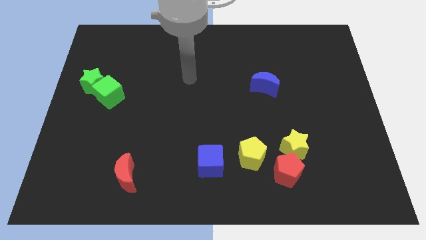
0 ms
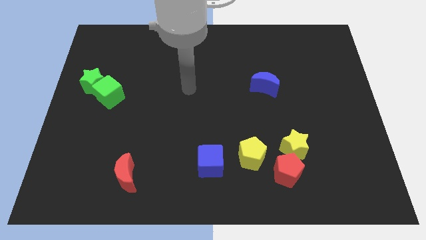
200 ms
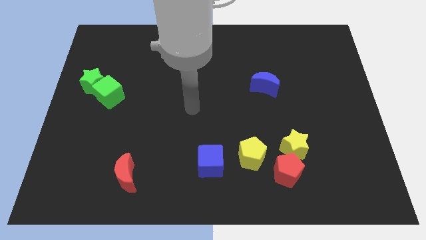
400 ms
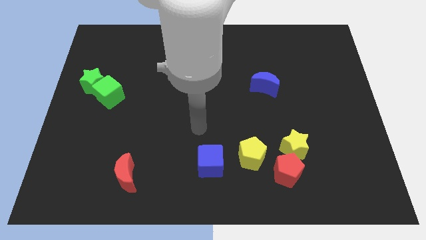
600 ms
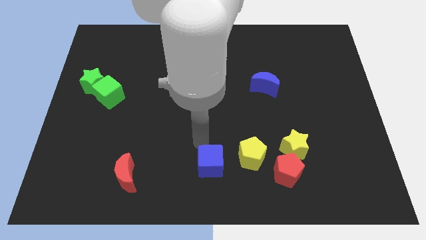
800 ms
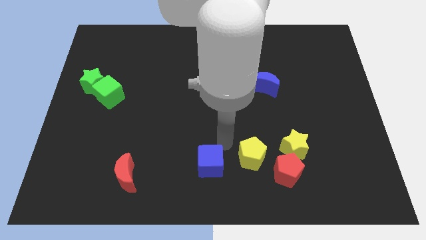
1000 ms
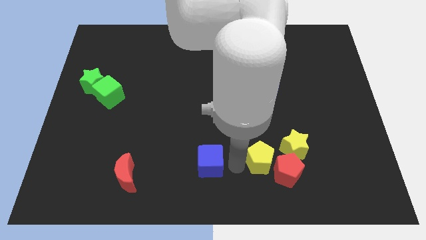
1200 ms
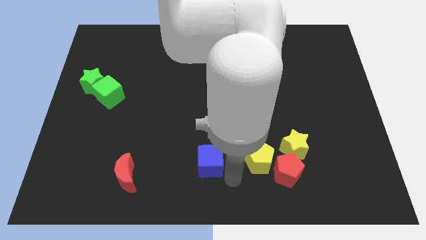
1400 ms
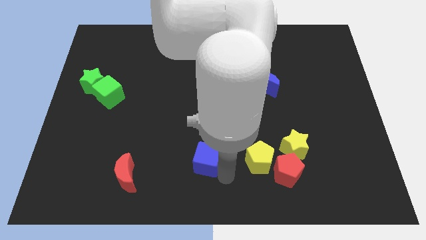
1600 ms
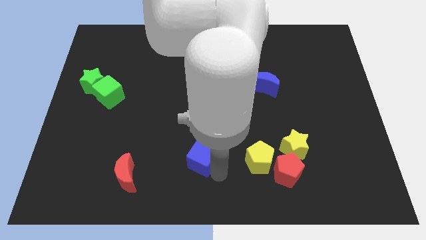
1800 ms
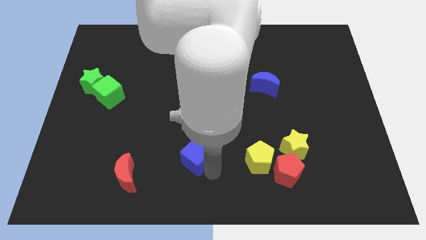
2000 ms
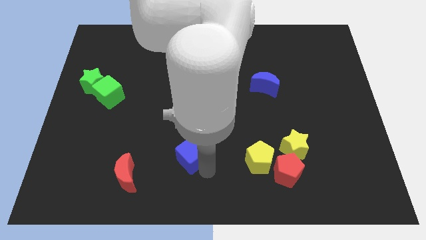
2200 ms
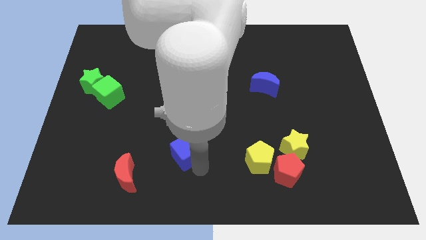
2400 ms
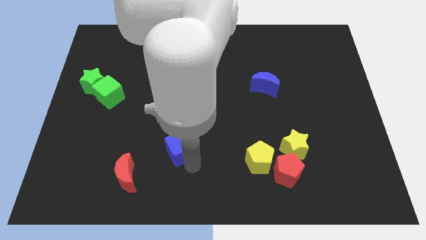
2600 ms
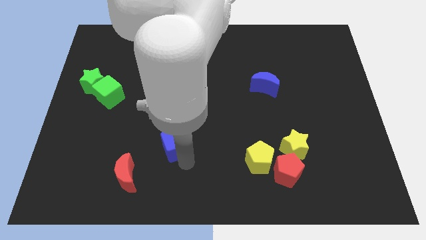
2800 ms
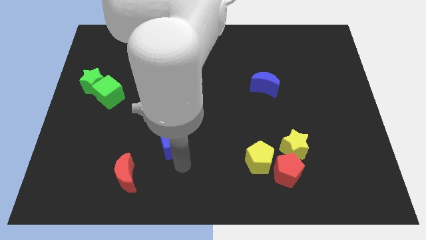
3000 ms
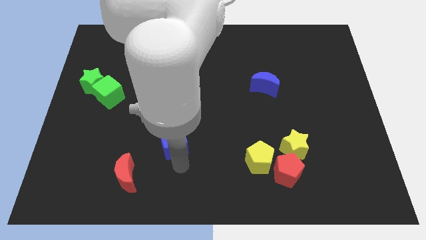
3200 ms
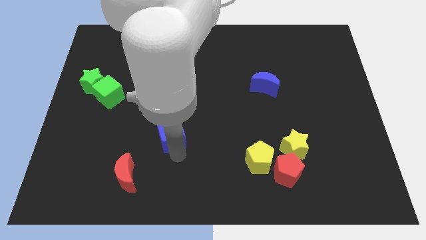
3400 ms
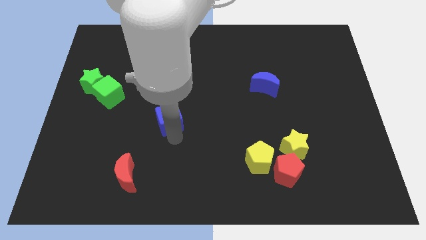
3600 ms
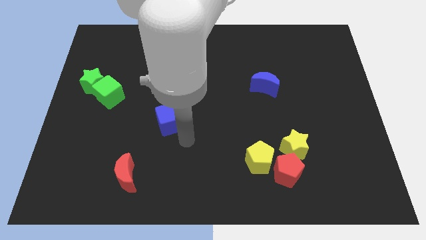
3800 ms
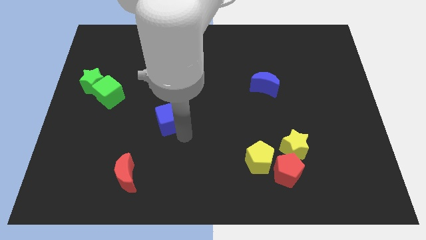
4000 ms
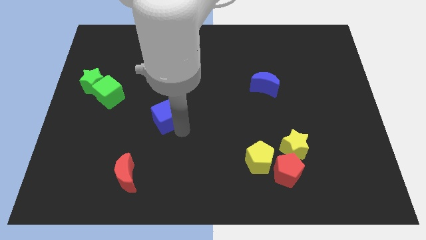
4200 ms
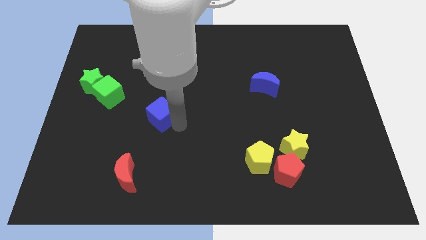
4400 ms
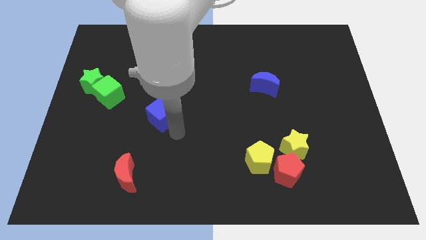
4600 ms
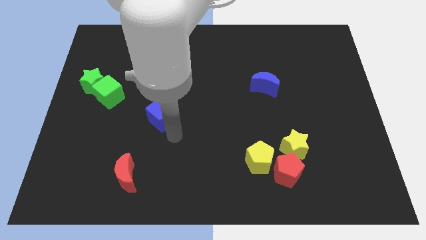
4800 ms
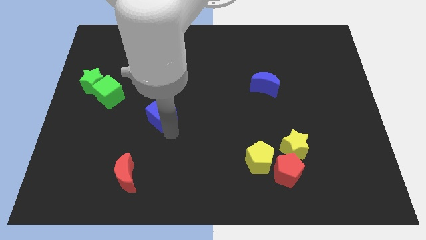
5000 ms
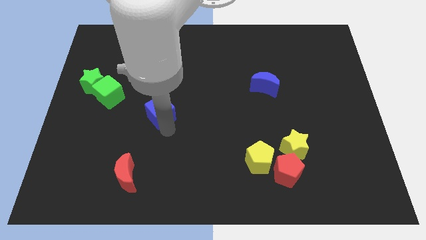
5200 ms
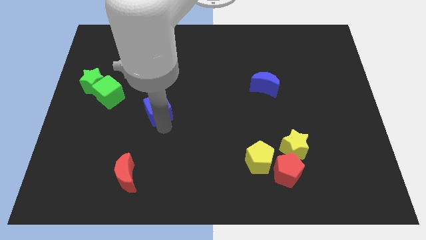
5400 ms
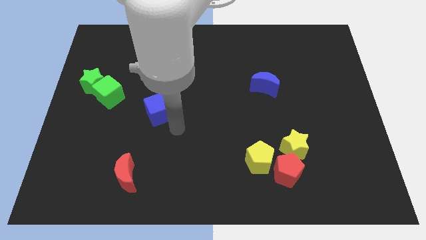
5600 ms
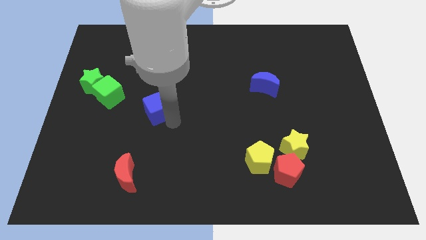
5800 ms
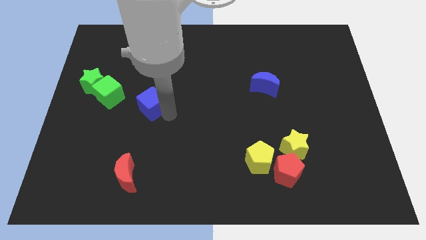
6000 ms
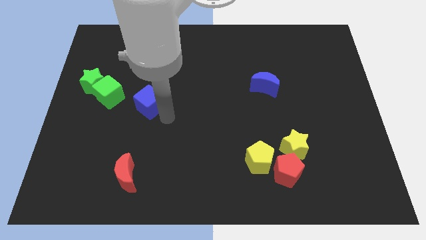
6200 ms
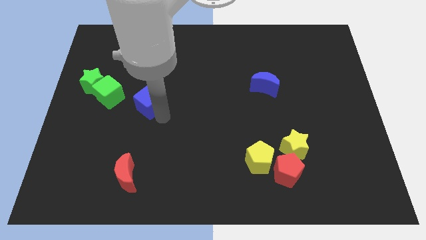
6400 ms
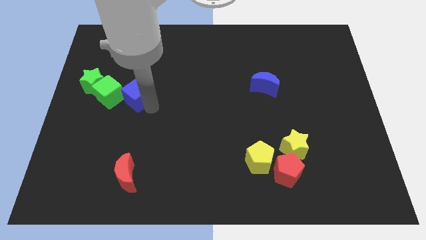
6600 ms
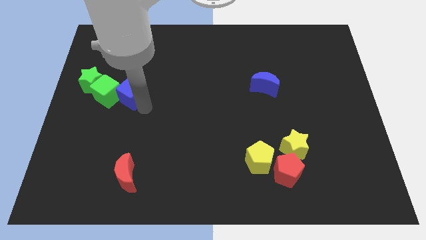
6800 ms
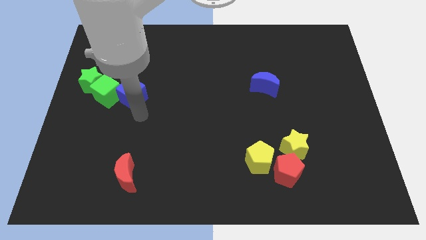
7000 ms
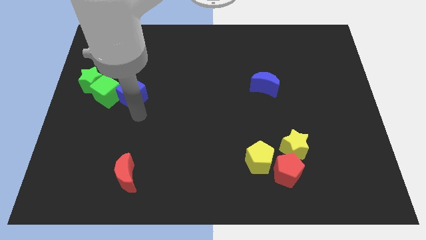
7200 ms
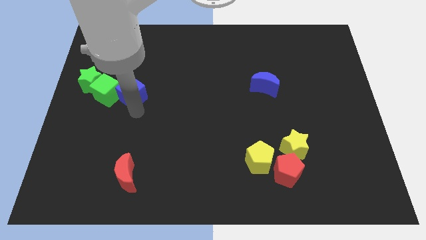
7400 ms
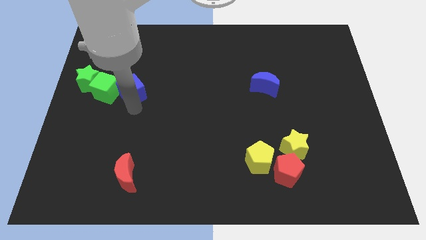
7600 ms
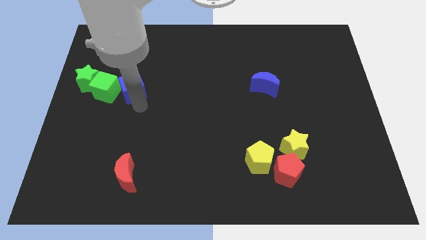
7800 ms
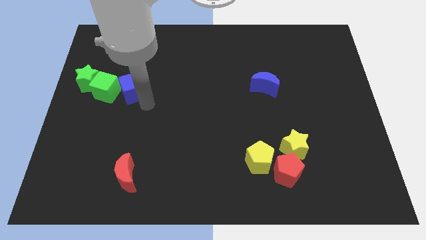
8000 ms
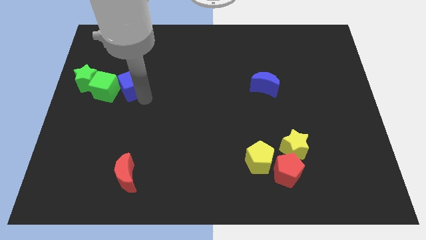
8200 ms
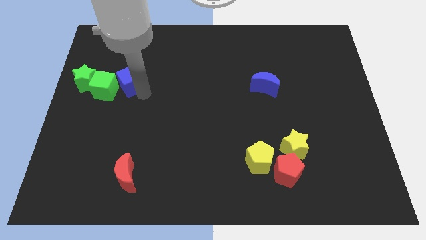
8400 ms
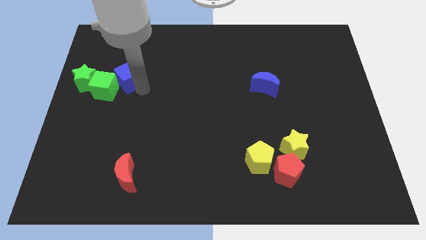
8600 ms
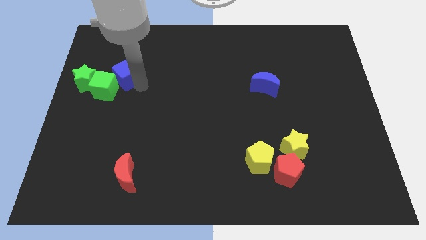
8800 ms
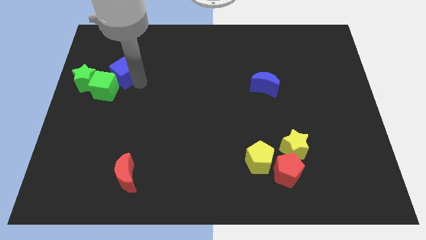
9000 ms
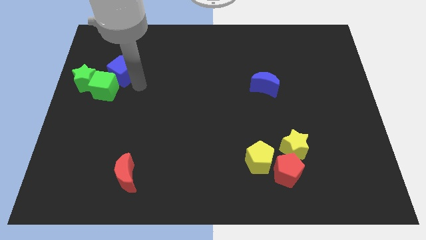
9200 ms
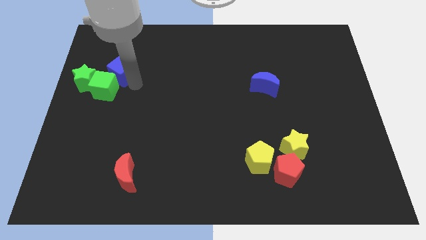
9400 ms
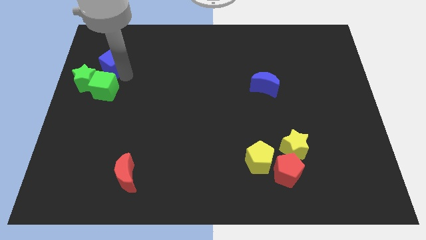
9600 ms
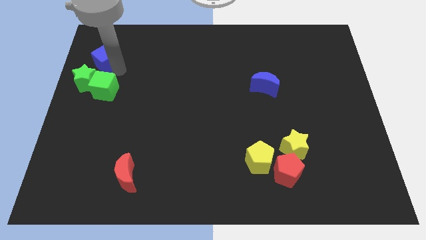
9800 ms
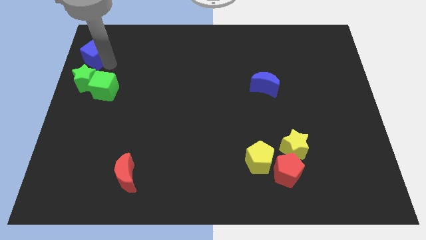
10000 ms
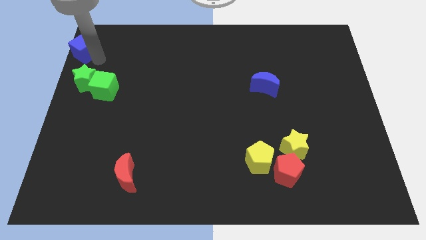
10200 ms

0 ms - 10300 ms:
move the blue cube to the upper left corner

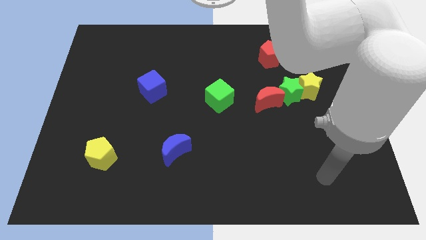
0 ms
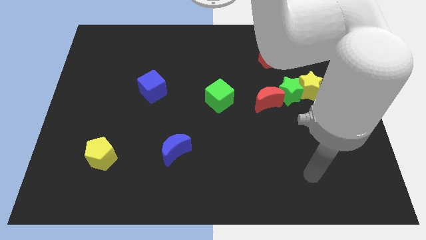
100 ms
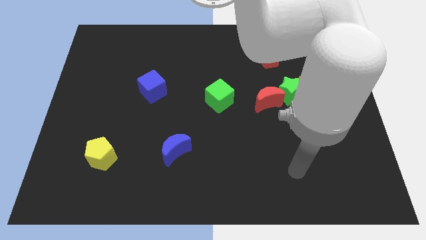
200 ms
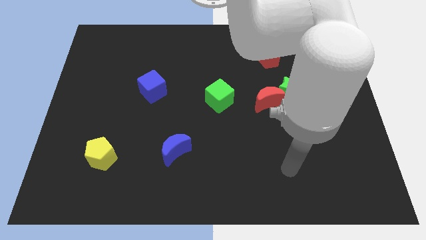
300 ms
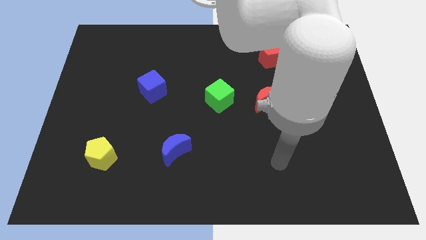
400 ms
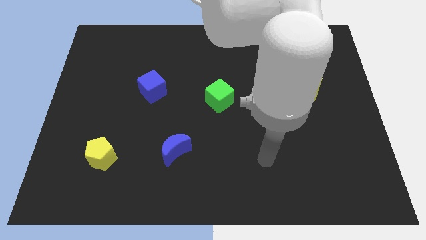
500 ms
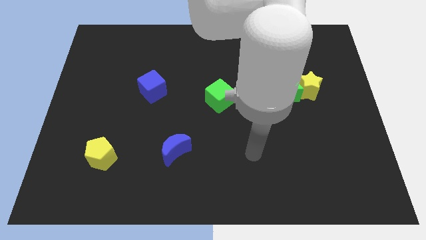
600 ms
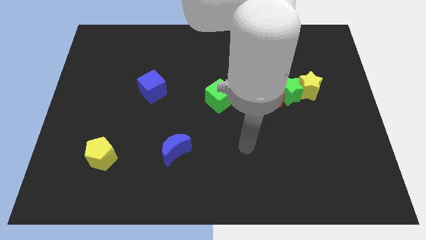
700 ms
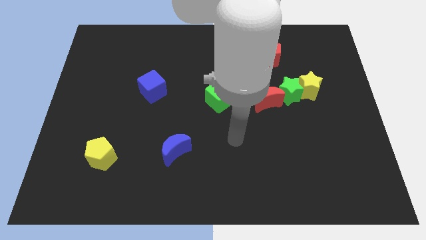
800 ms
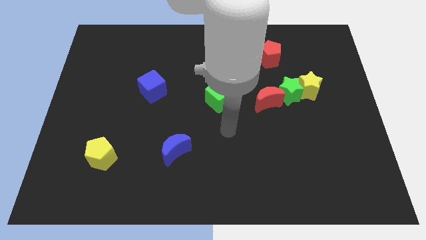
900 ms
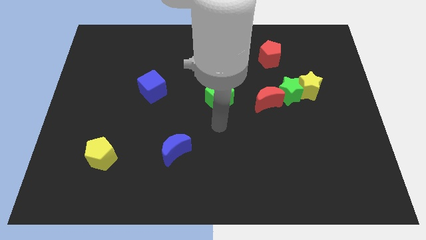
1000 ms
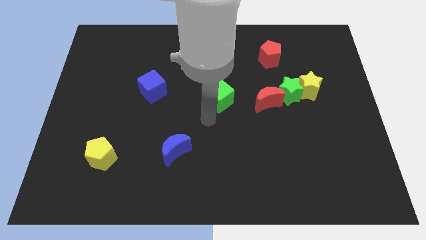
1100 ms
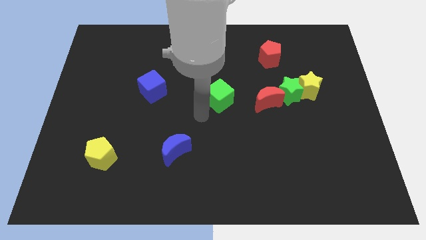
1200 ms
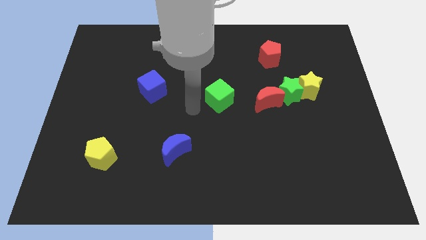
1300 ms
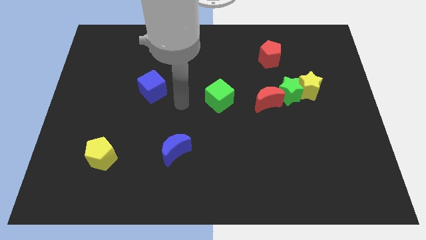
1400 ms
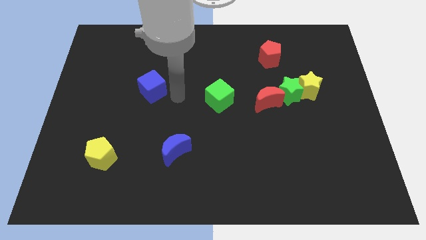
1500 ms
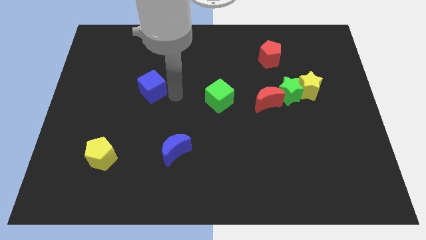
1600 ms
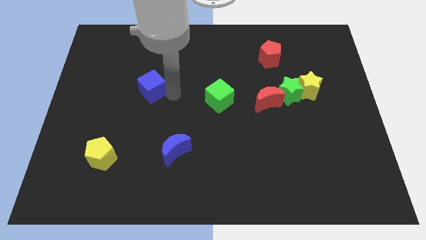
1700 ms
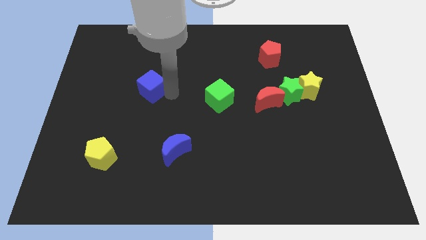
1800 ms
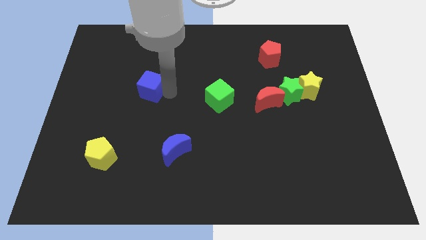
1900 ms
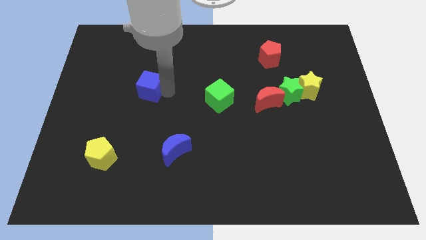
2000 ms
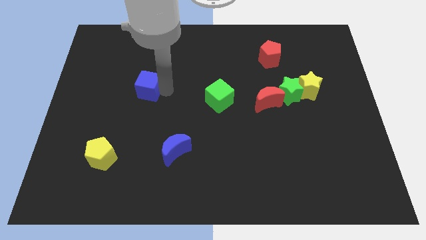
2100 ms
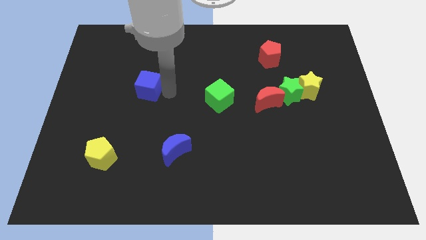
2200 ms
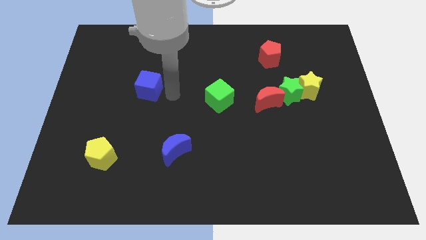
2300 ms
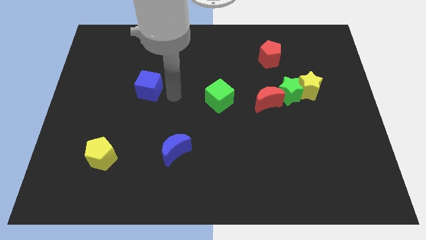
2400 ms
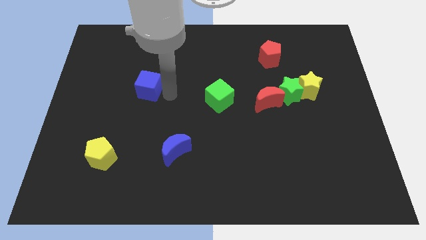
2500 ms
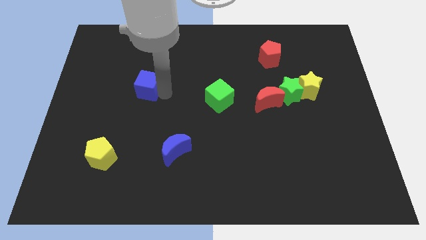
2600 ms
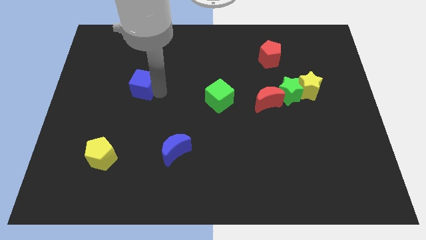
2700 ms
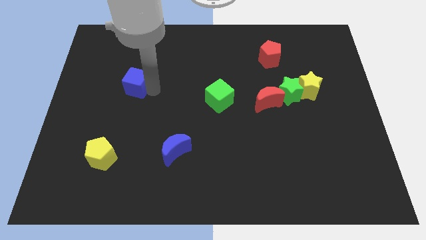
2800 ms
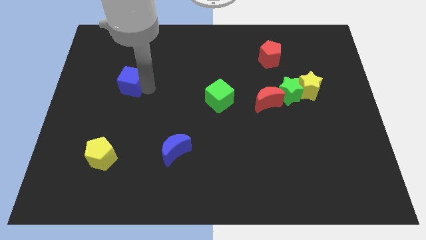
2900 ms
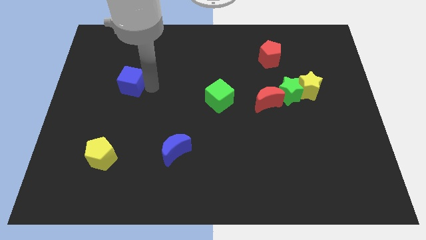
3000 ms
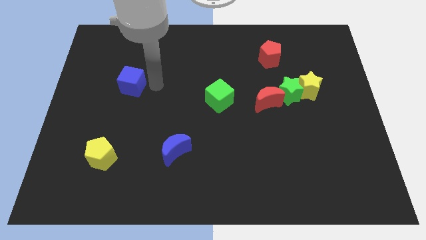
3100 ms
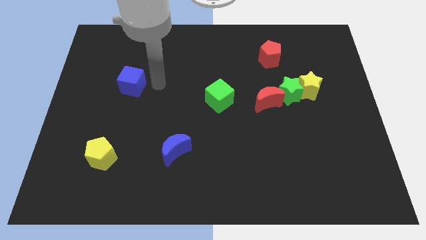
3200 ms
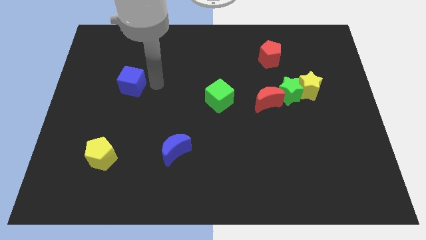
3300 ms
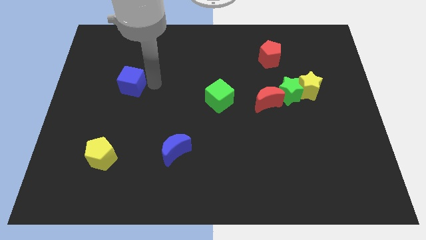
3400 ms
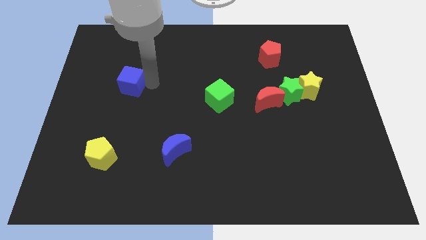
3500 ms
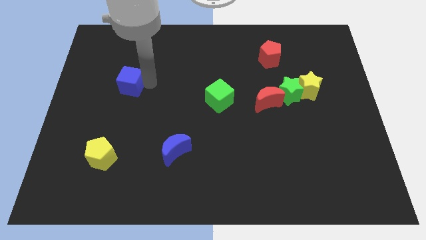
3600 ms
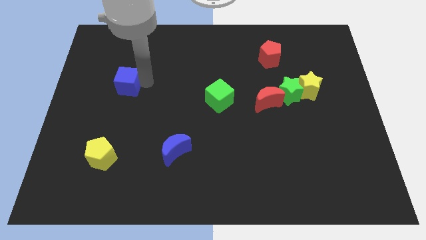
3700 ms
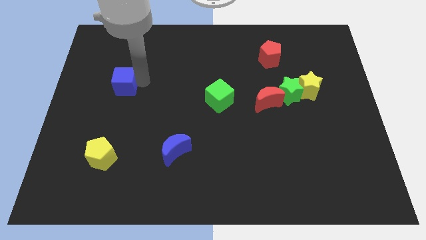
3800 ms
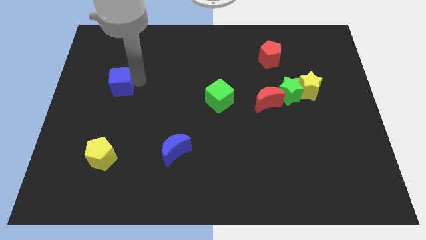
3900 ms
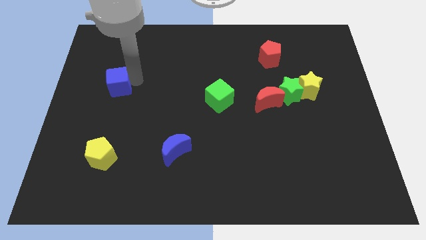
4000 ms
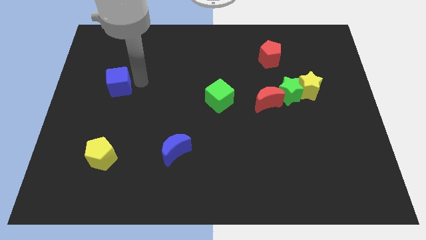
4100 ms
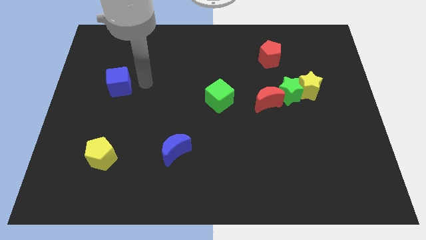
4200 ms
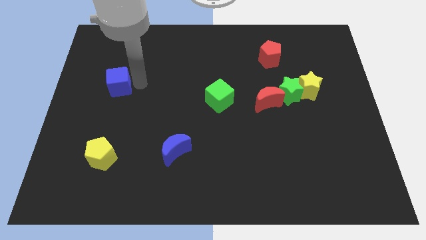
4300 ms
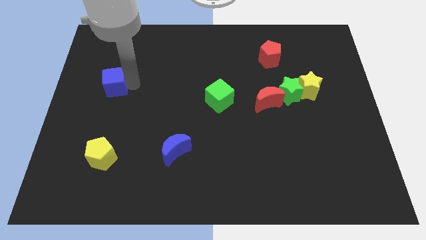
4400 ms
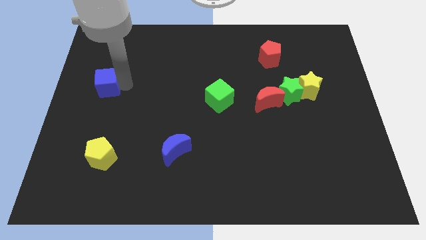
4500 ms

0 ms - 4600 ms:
slide the blue cube to the center left
